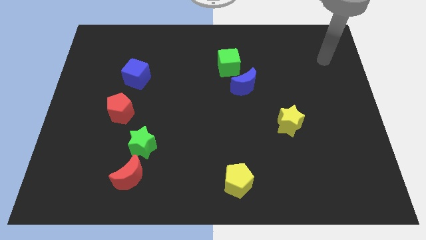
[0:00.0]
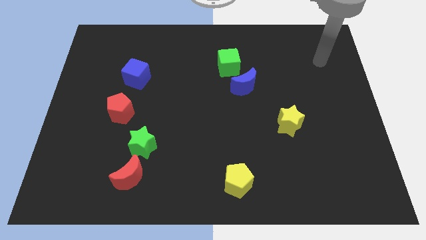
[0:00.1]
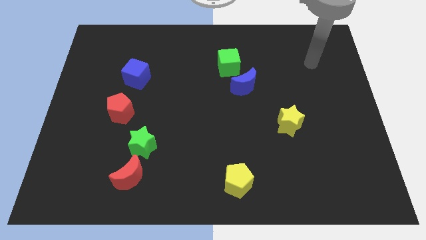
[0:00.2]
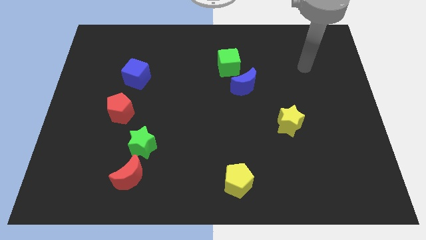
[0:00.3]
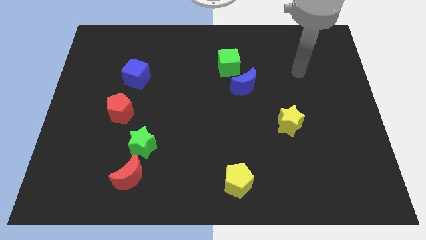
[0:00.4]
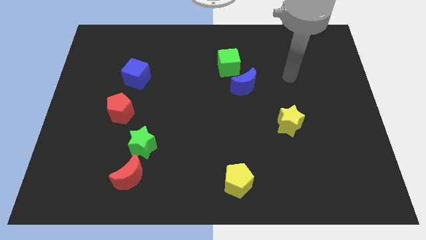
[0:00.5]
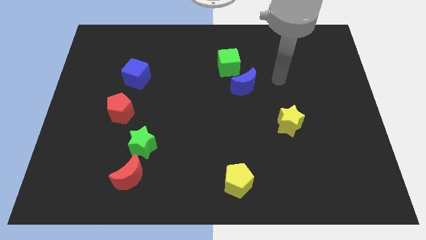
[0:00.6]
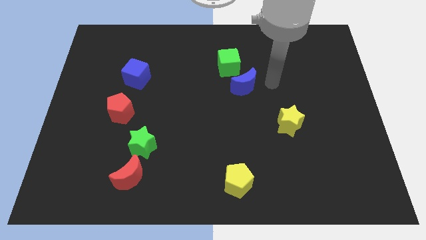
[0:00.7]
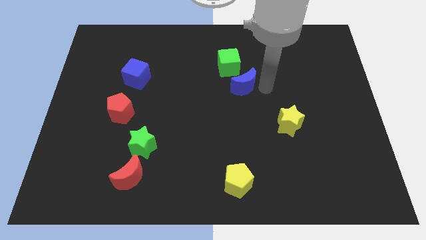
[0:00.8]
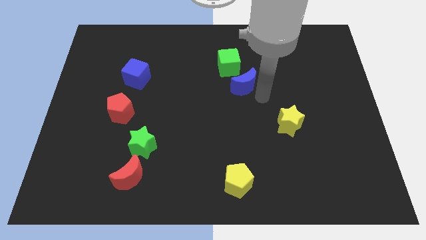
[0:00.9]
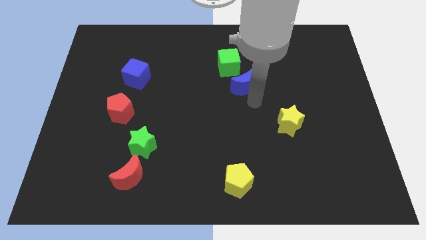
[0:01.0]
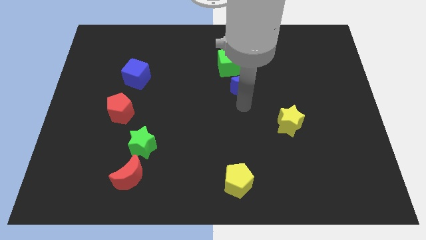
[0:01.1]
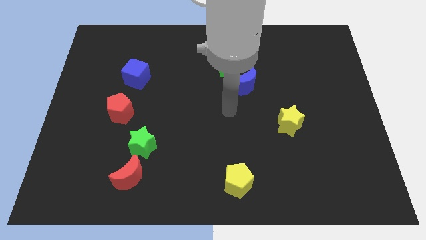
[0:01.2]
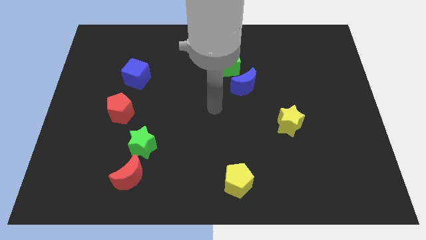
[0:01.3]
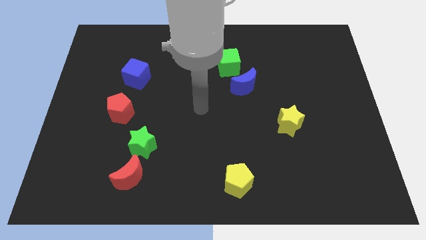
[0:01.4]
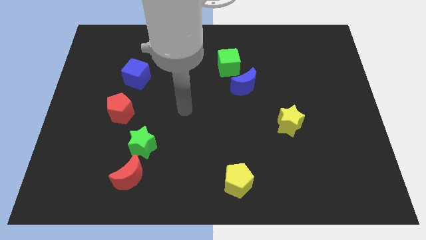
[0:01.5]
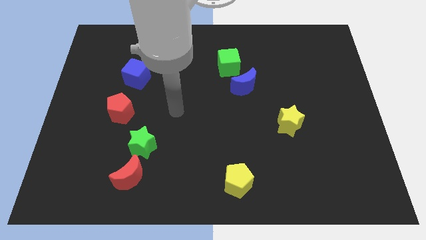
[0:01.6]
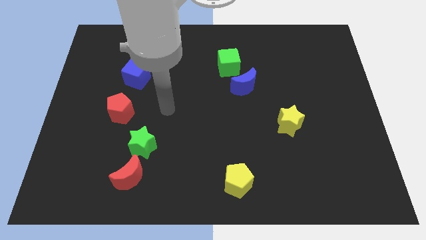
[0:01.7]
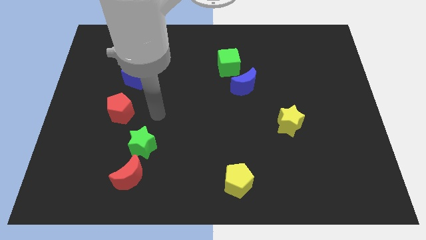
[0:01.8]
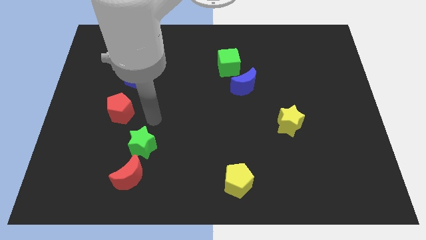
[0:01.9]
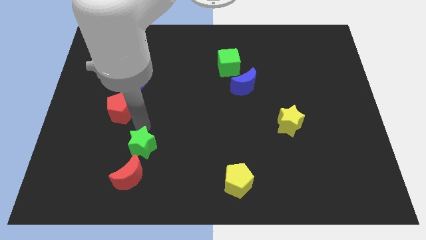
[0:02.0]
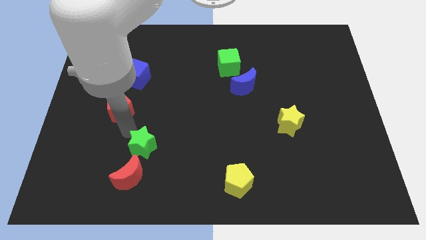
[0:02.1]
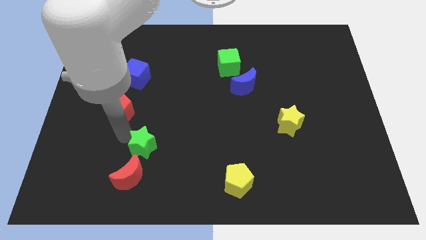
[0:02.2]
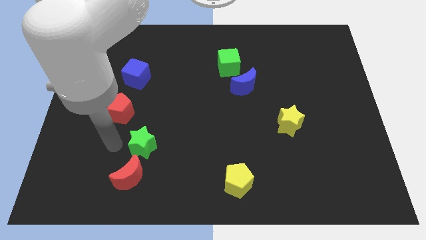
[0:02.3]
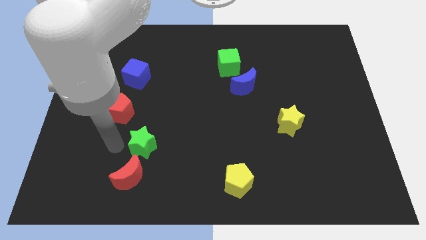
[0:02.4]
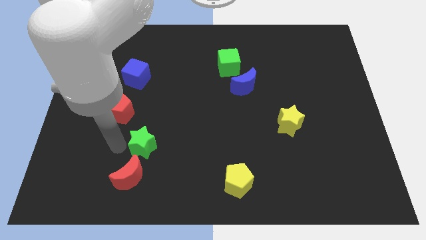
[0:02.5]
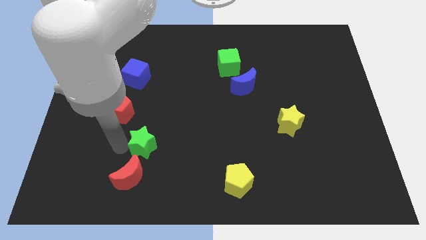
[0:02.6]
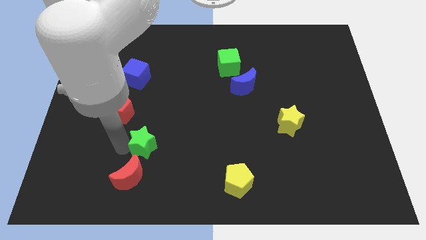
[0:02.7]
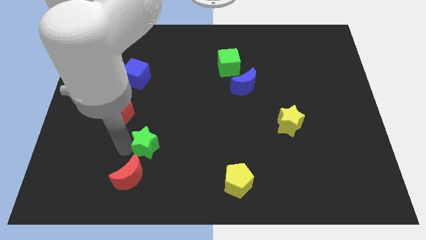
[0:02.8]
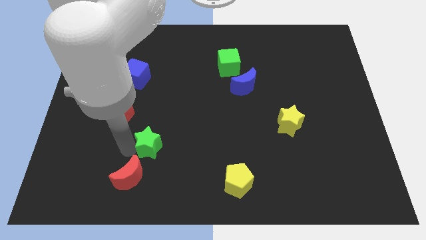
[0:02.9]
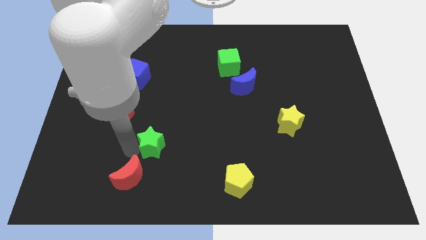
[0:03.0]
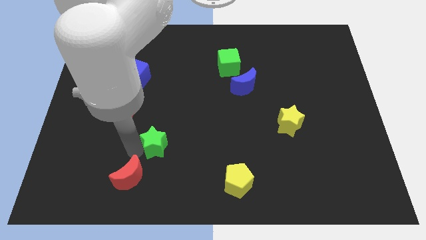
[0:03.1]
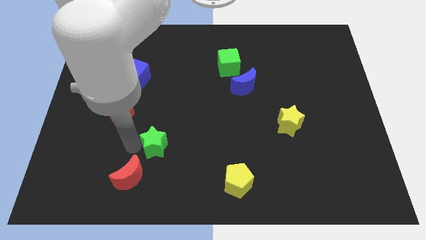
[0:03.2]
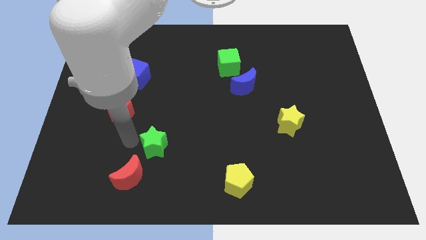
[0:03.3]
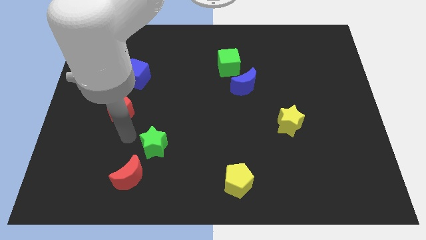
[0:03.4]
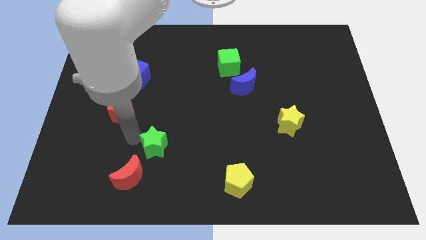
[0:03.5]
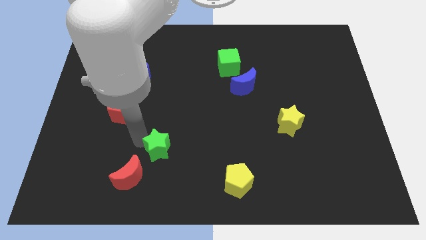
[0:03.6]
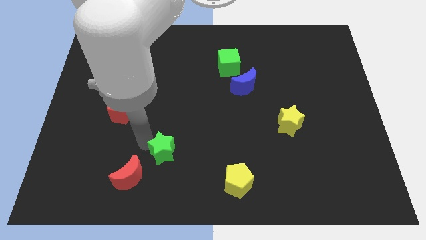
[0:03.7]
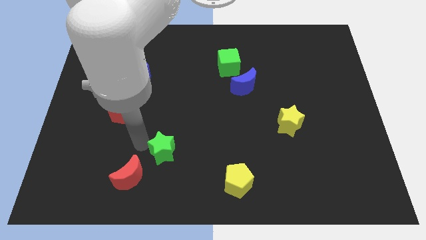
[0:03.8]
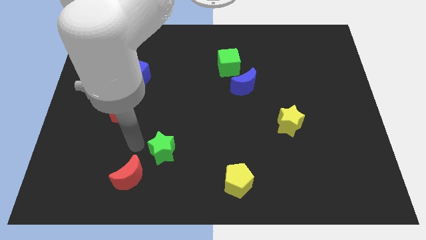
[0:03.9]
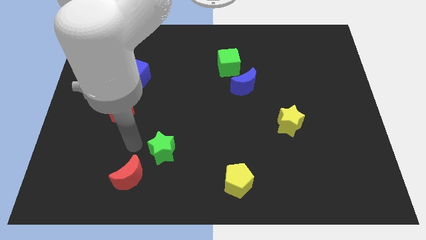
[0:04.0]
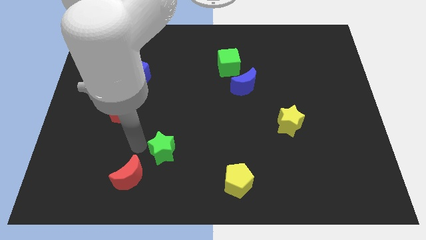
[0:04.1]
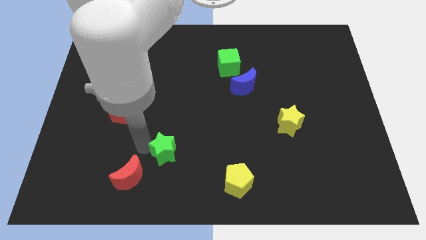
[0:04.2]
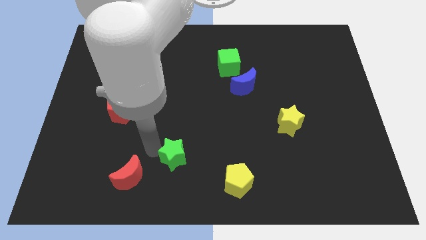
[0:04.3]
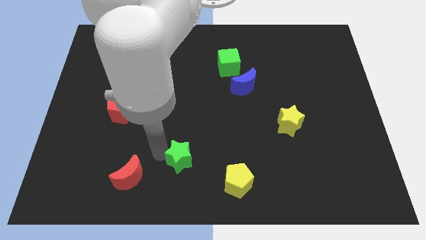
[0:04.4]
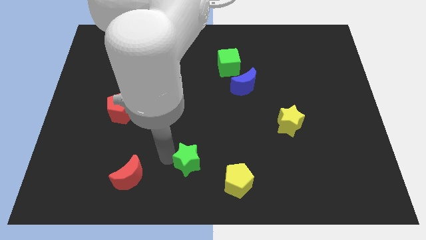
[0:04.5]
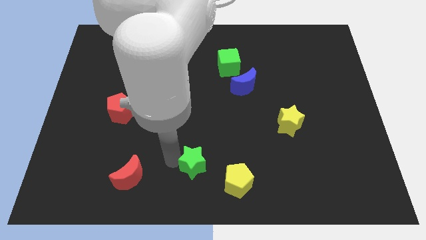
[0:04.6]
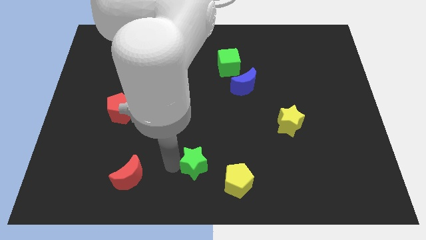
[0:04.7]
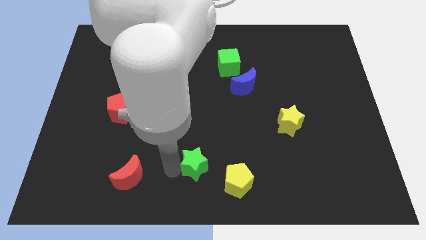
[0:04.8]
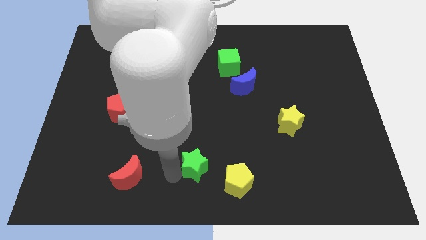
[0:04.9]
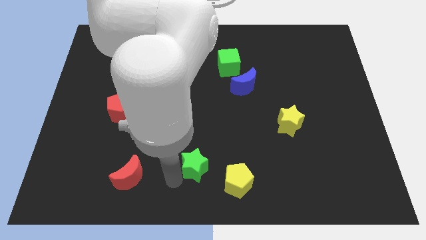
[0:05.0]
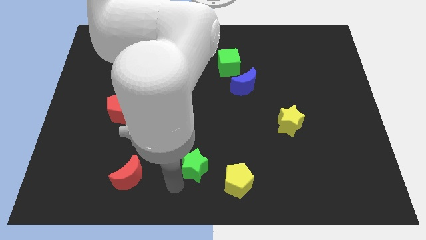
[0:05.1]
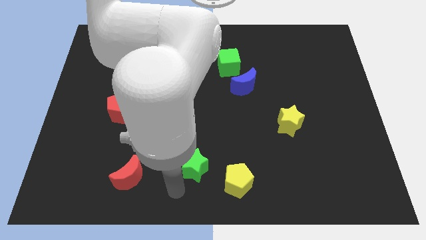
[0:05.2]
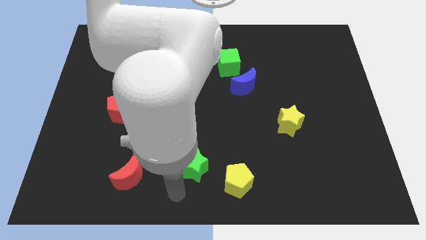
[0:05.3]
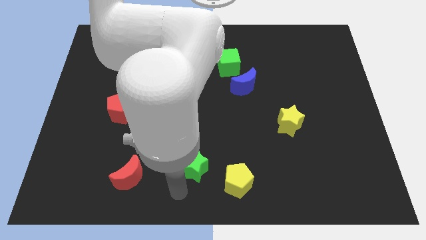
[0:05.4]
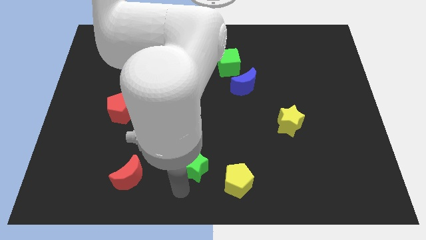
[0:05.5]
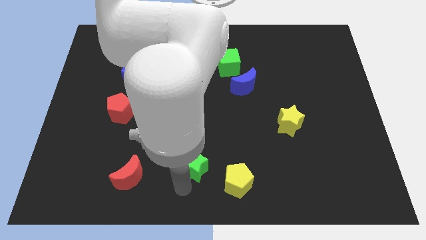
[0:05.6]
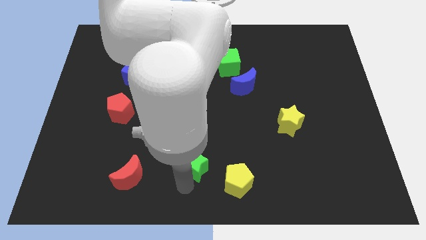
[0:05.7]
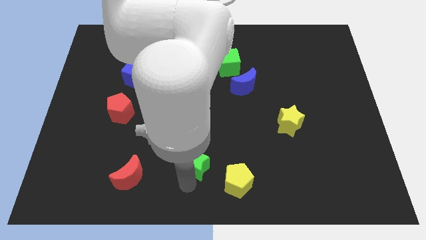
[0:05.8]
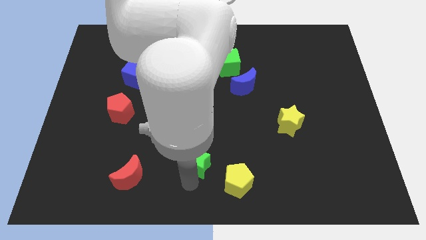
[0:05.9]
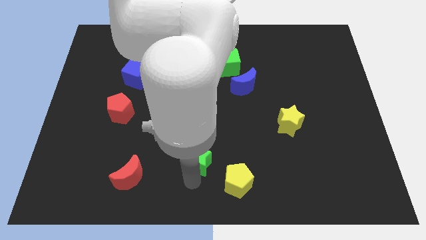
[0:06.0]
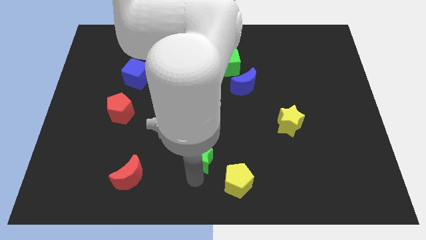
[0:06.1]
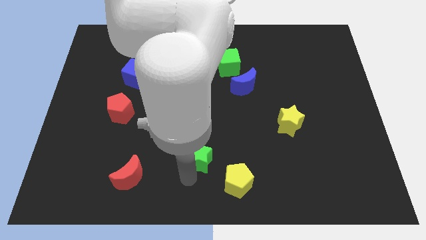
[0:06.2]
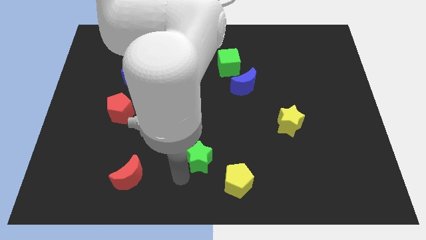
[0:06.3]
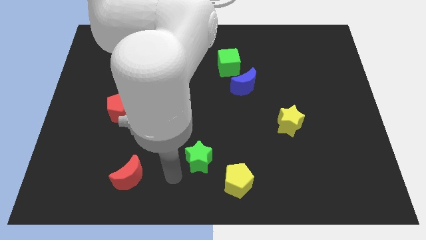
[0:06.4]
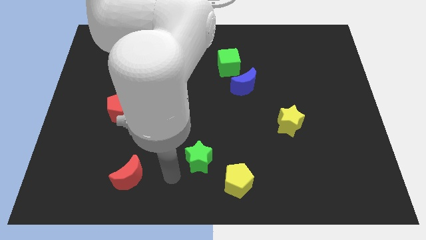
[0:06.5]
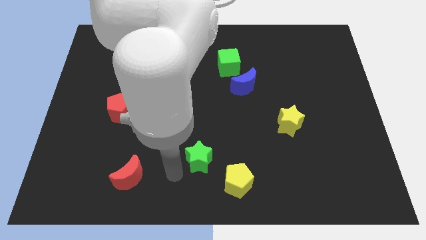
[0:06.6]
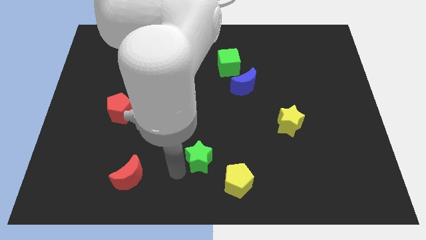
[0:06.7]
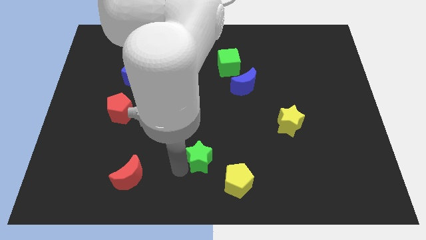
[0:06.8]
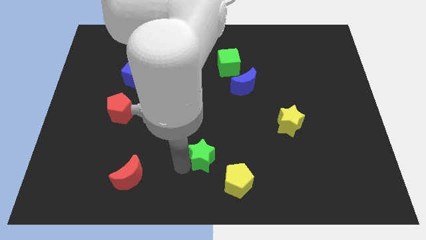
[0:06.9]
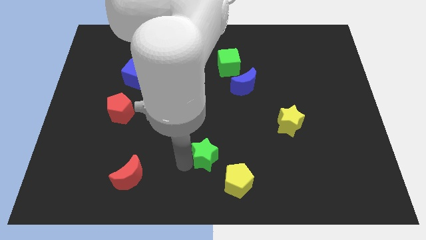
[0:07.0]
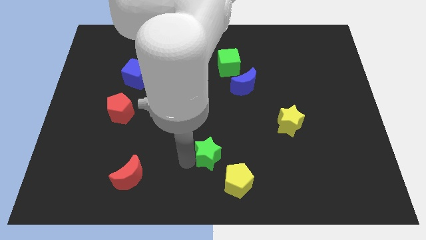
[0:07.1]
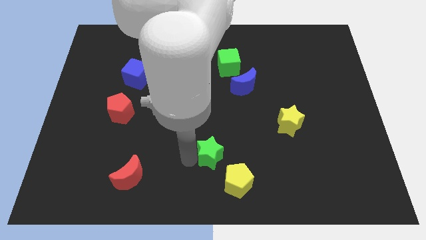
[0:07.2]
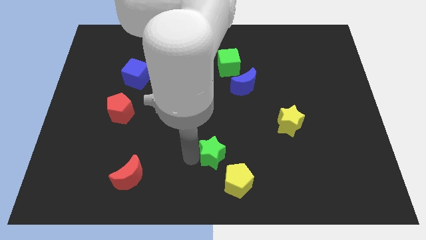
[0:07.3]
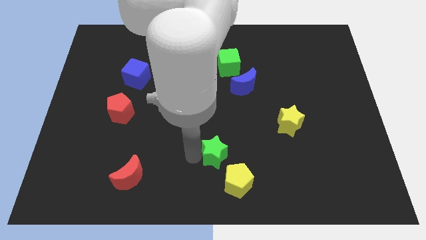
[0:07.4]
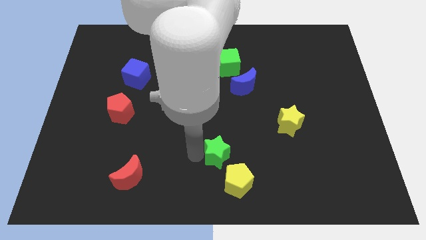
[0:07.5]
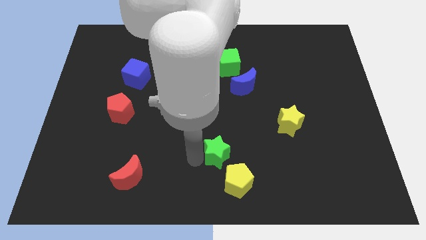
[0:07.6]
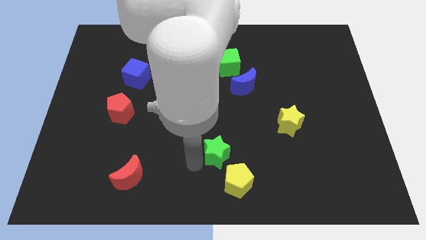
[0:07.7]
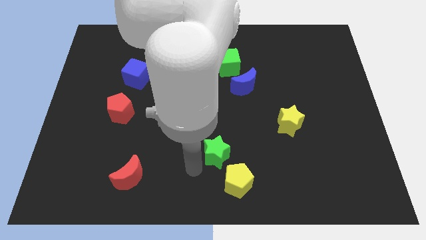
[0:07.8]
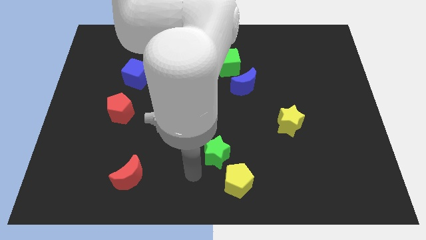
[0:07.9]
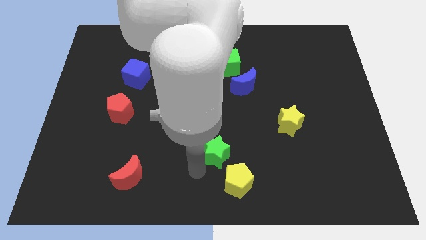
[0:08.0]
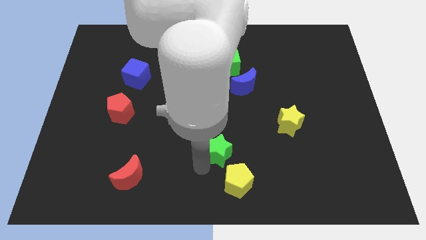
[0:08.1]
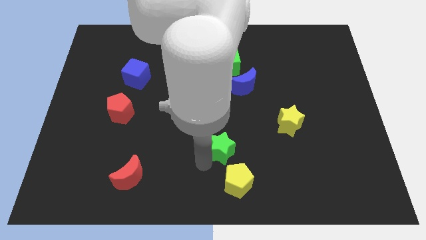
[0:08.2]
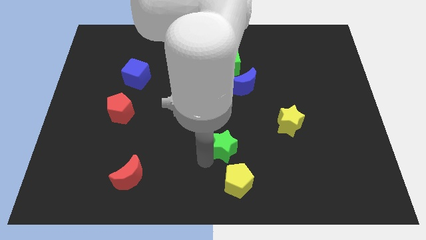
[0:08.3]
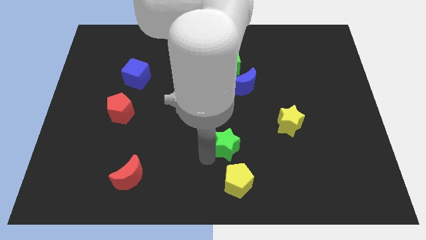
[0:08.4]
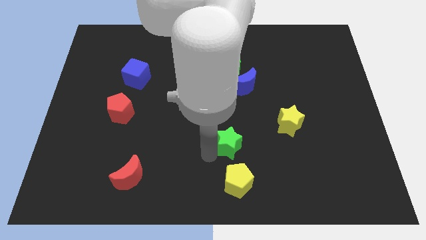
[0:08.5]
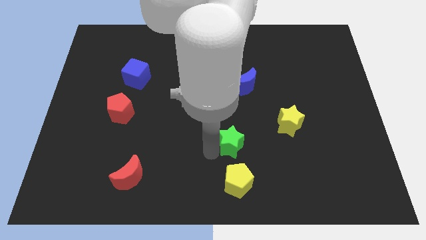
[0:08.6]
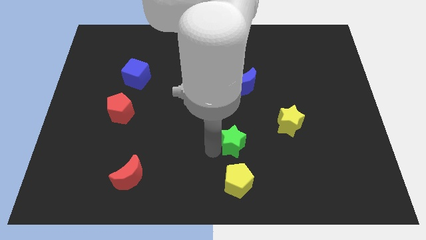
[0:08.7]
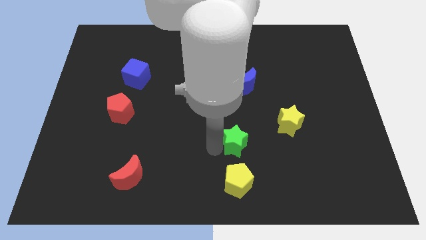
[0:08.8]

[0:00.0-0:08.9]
slide the green star right
